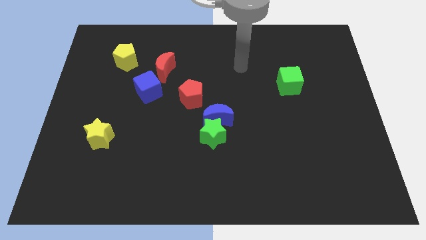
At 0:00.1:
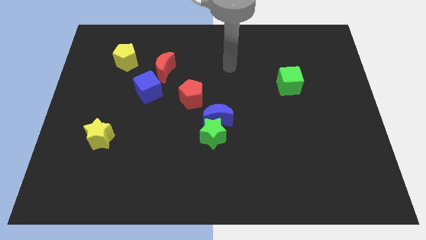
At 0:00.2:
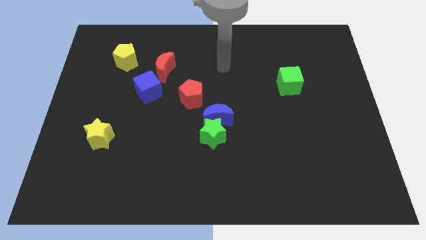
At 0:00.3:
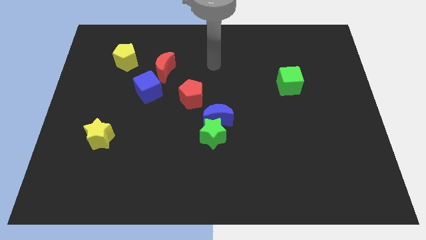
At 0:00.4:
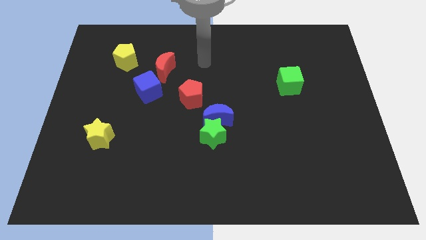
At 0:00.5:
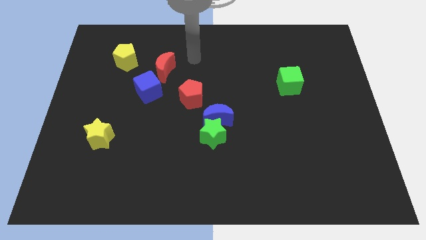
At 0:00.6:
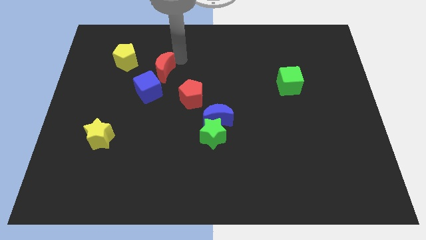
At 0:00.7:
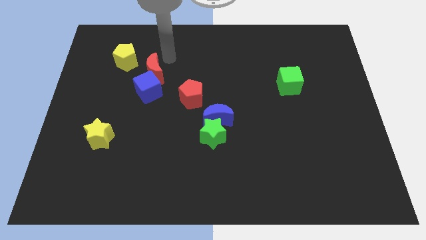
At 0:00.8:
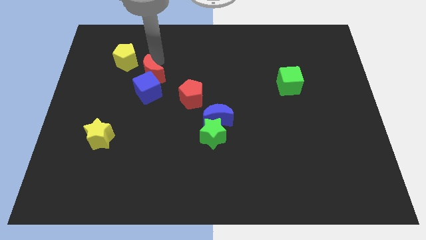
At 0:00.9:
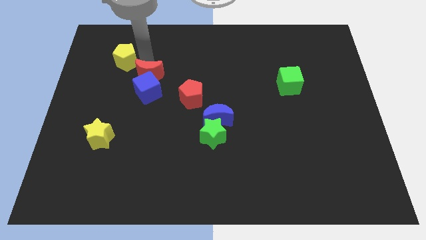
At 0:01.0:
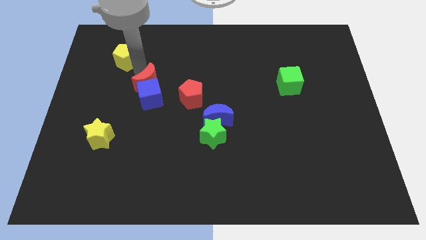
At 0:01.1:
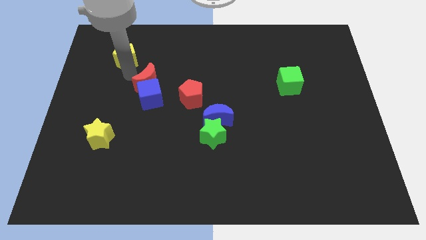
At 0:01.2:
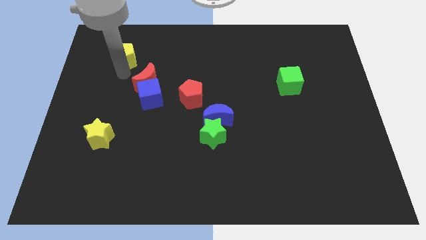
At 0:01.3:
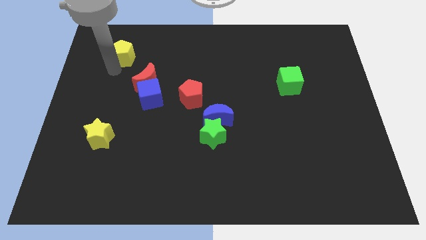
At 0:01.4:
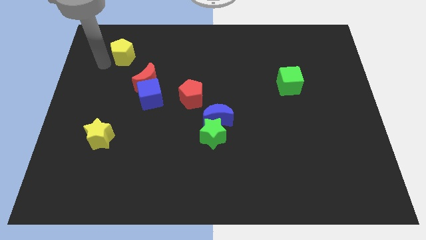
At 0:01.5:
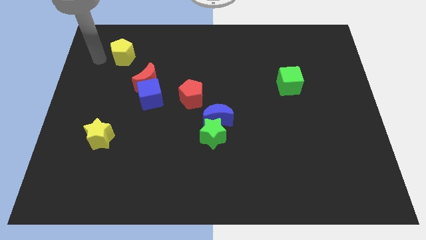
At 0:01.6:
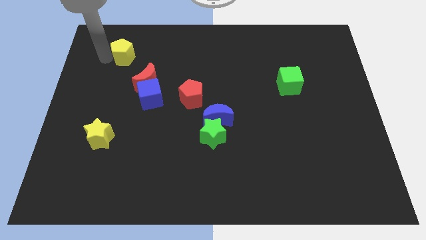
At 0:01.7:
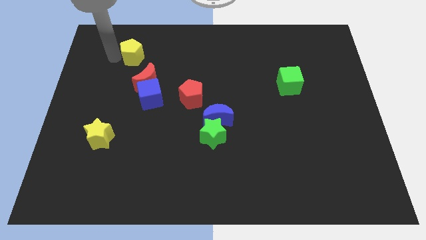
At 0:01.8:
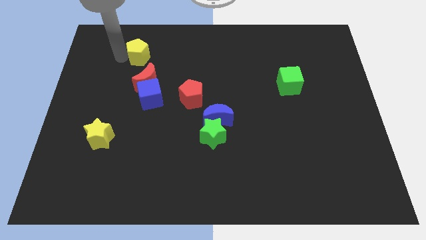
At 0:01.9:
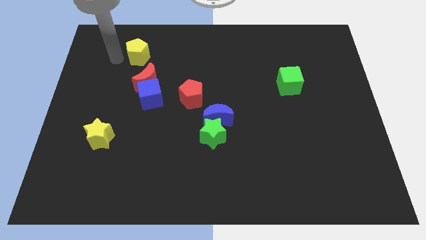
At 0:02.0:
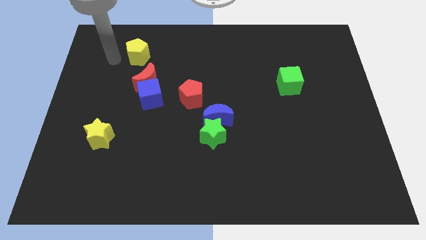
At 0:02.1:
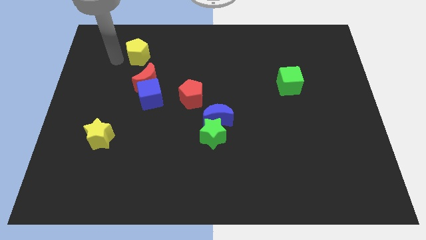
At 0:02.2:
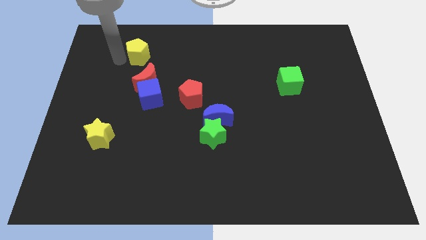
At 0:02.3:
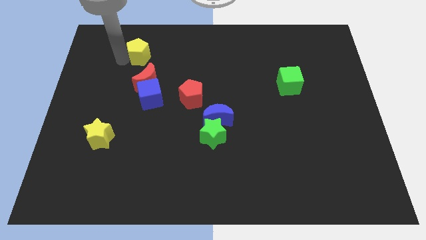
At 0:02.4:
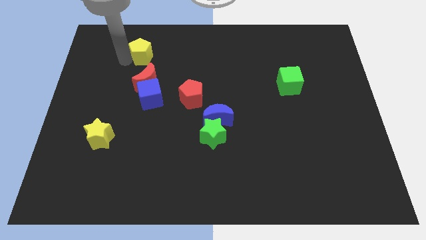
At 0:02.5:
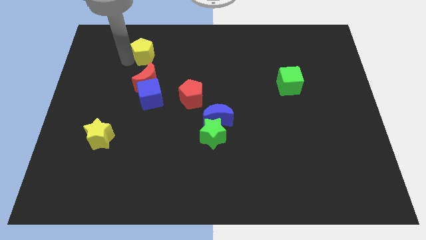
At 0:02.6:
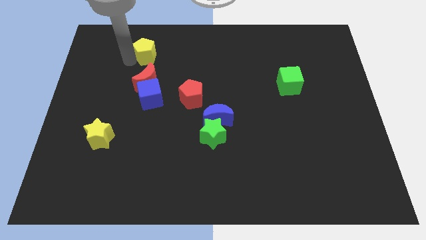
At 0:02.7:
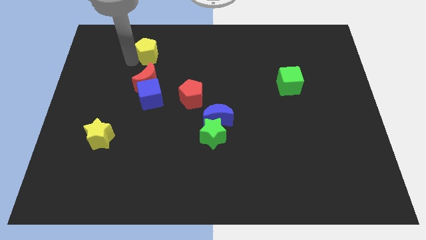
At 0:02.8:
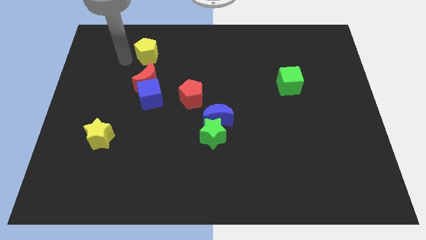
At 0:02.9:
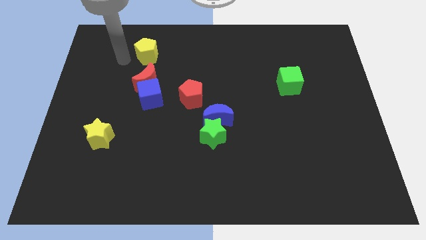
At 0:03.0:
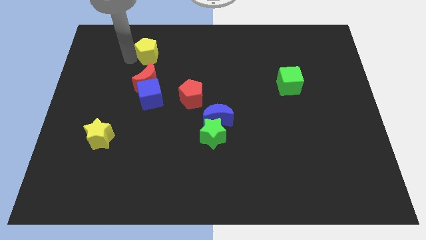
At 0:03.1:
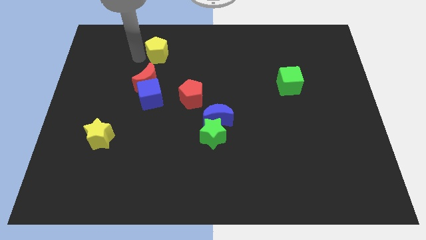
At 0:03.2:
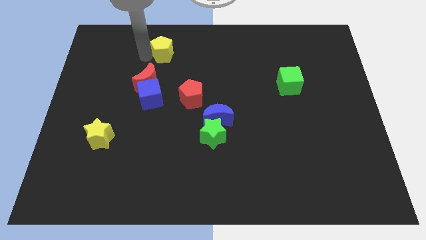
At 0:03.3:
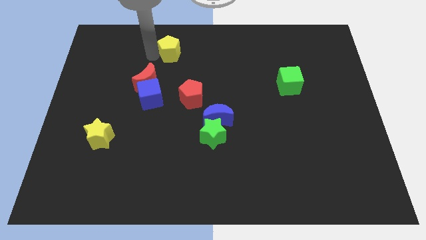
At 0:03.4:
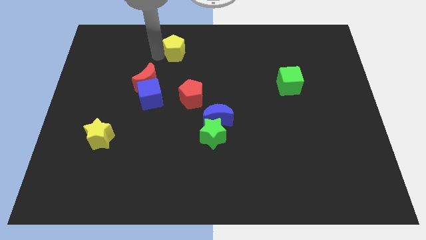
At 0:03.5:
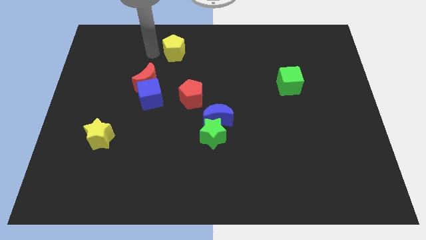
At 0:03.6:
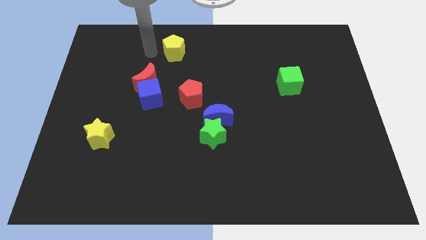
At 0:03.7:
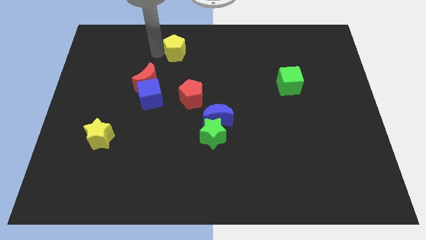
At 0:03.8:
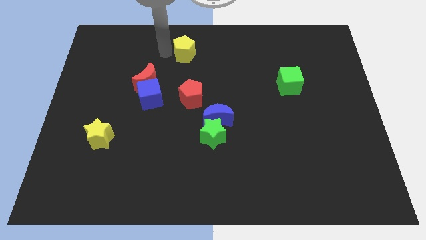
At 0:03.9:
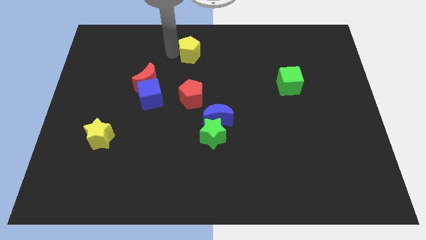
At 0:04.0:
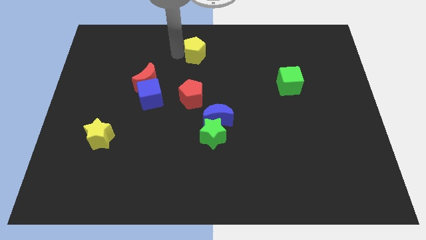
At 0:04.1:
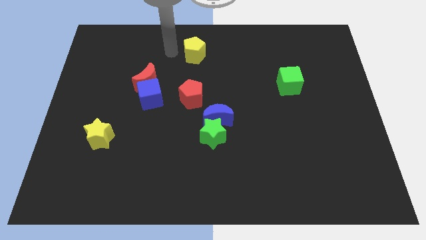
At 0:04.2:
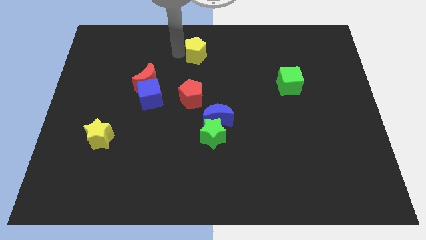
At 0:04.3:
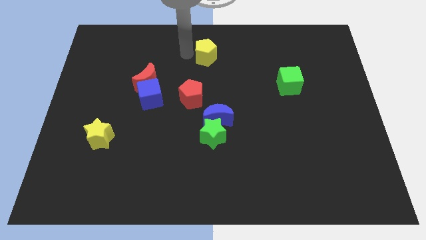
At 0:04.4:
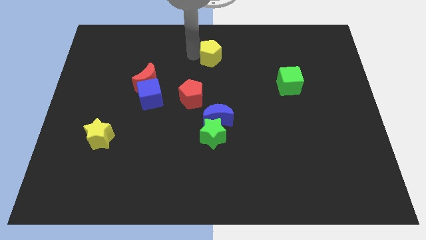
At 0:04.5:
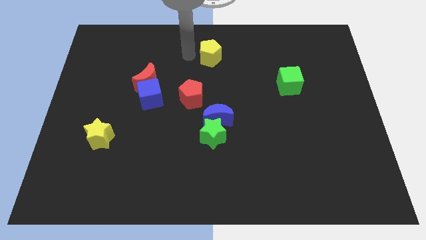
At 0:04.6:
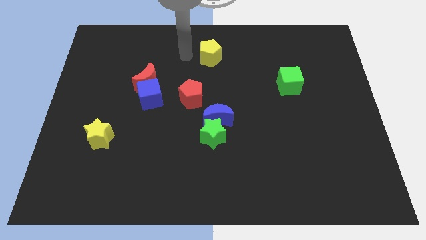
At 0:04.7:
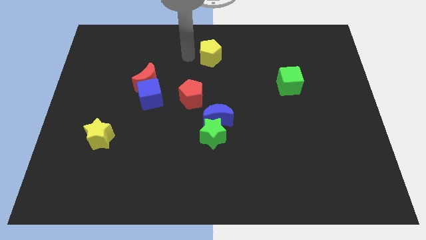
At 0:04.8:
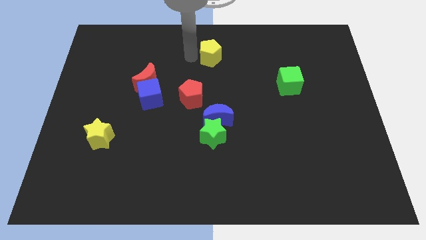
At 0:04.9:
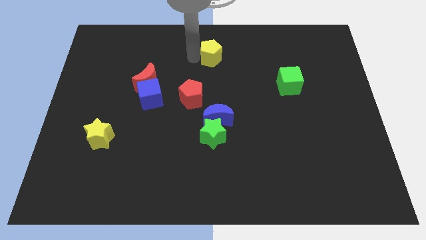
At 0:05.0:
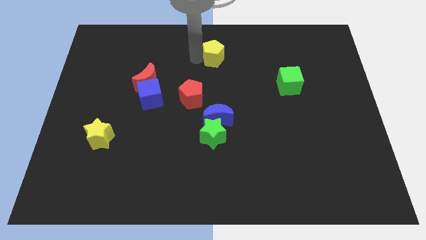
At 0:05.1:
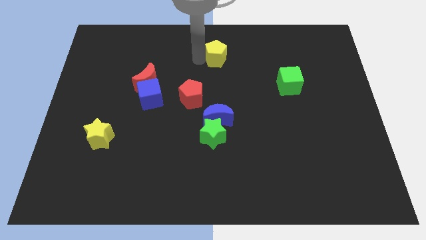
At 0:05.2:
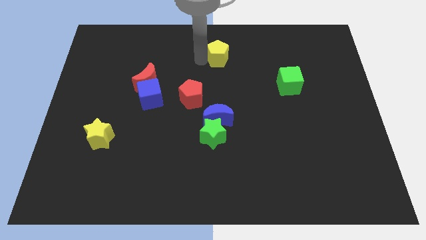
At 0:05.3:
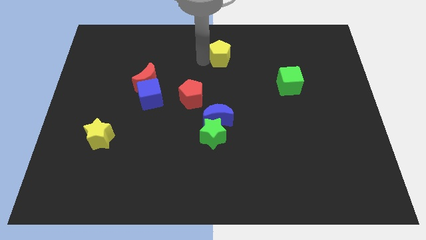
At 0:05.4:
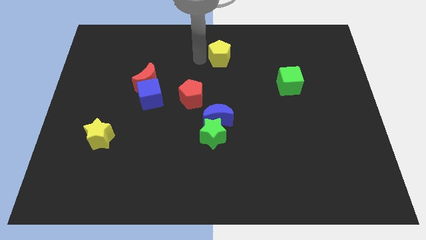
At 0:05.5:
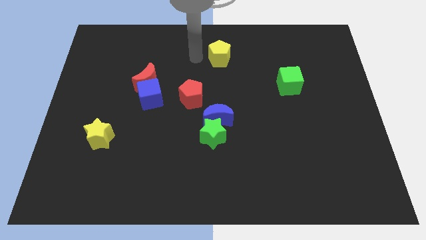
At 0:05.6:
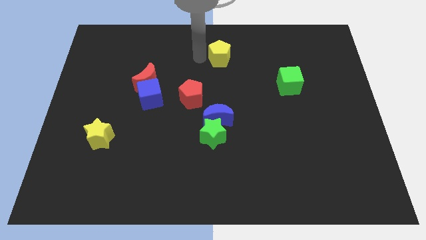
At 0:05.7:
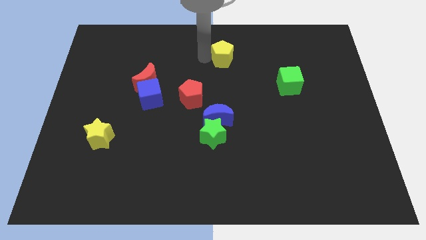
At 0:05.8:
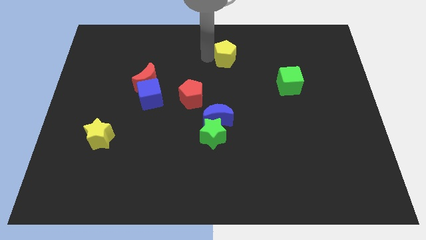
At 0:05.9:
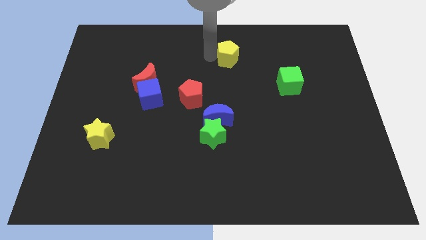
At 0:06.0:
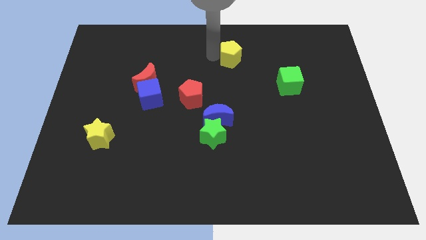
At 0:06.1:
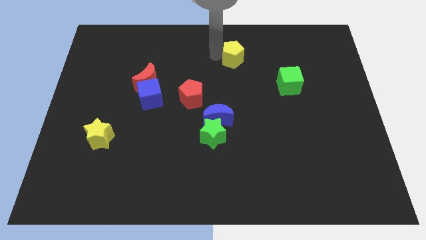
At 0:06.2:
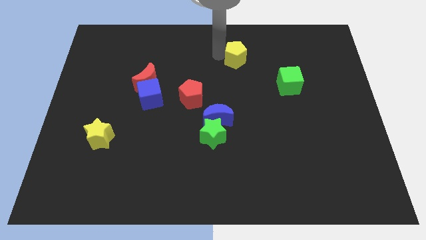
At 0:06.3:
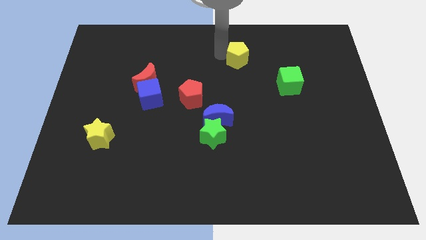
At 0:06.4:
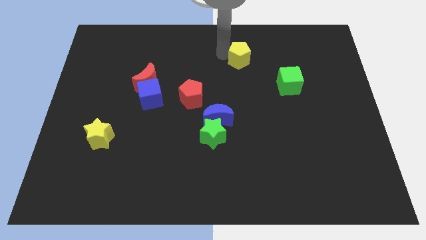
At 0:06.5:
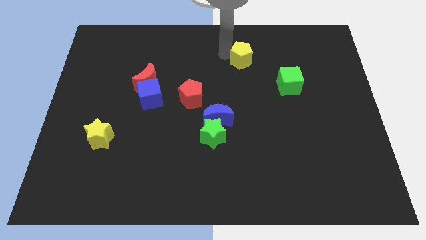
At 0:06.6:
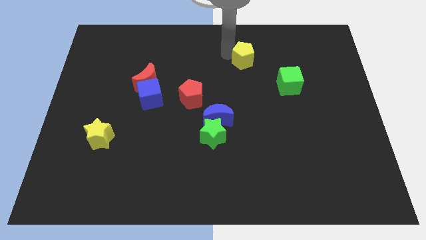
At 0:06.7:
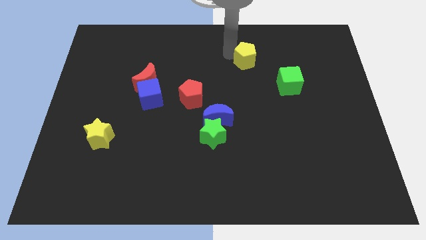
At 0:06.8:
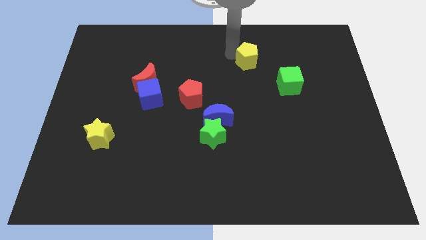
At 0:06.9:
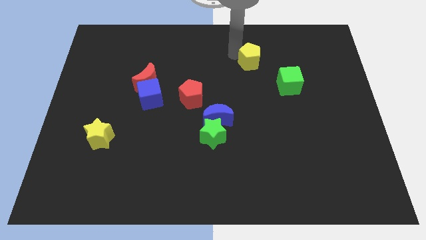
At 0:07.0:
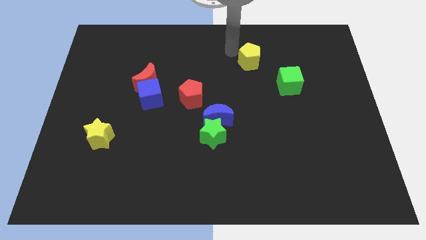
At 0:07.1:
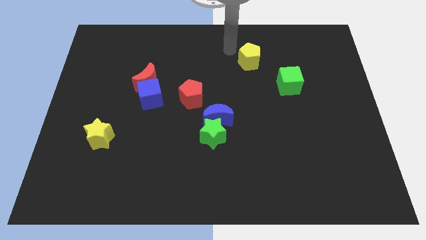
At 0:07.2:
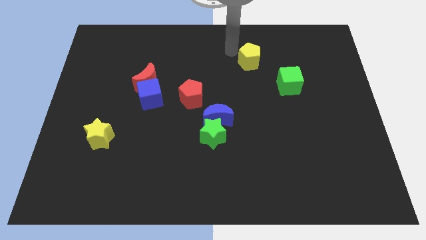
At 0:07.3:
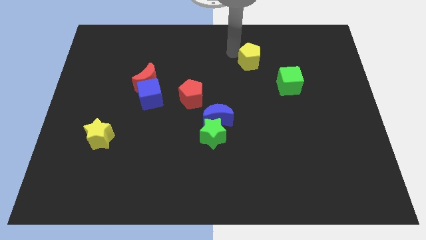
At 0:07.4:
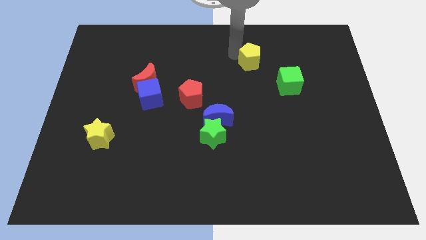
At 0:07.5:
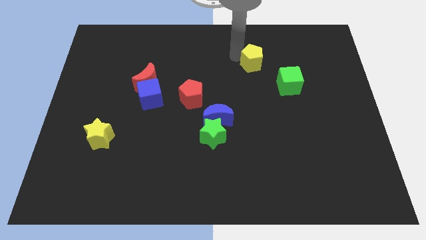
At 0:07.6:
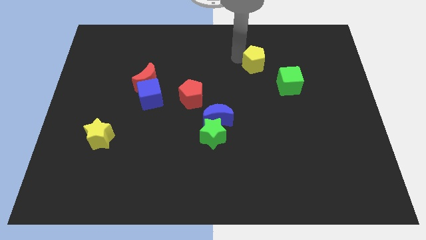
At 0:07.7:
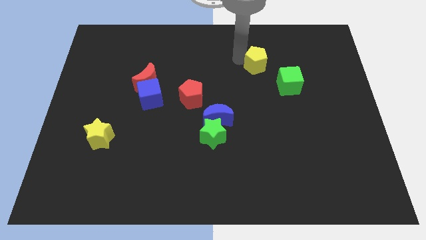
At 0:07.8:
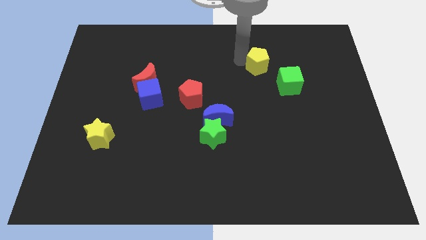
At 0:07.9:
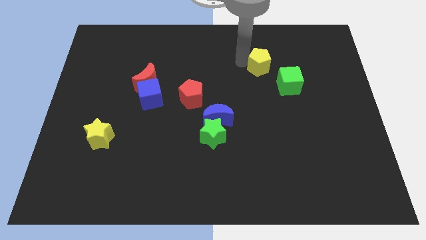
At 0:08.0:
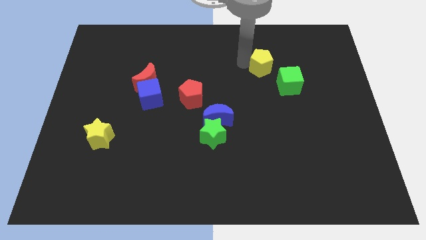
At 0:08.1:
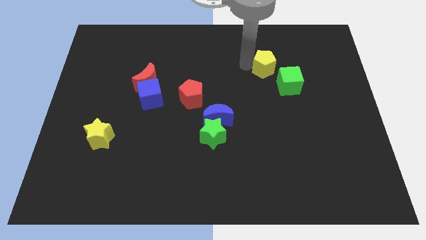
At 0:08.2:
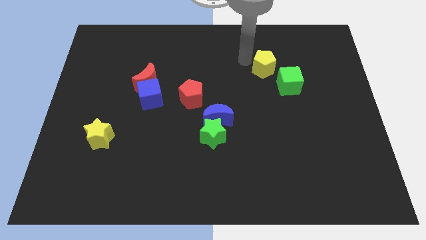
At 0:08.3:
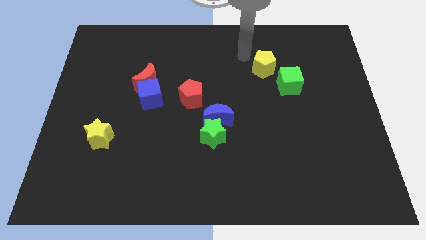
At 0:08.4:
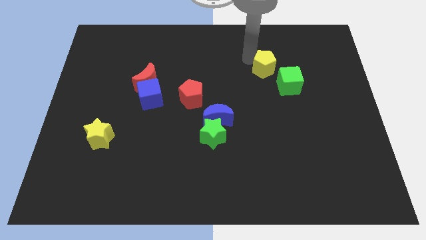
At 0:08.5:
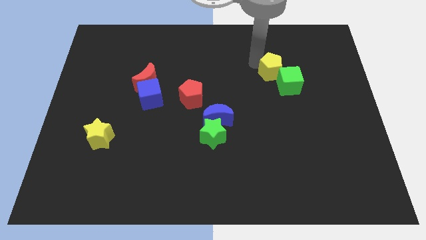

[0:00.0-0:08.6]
put the yellow pentagon to the green cube
